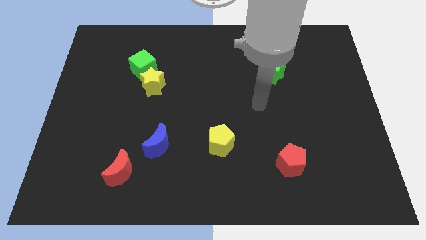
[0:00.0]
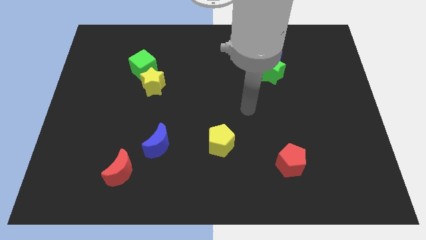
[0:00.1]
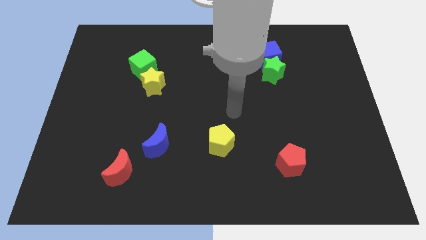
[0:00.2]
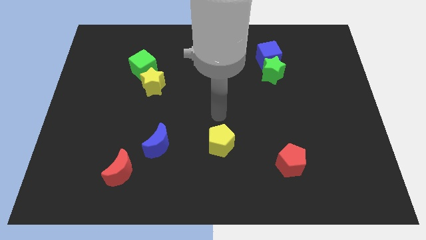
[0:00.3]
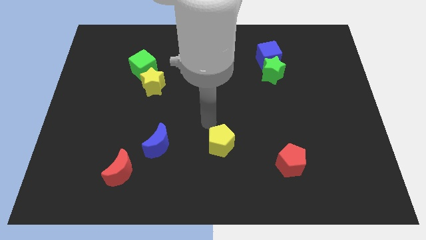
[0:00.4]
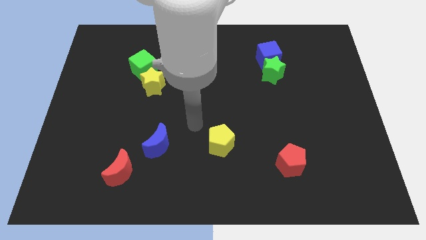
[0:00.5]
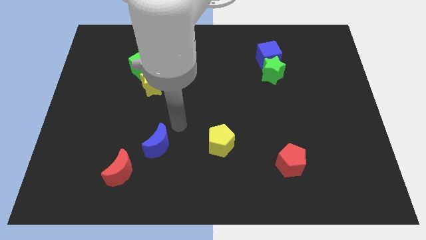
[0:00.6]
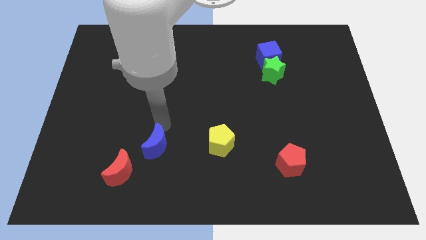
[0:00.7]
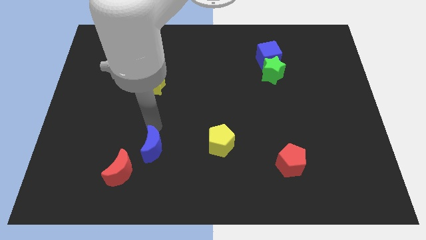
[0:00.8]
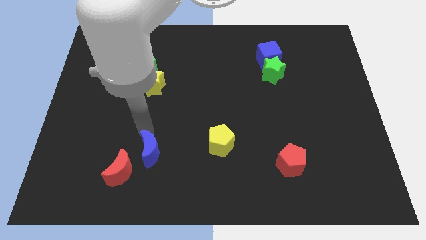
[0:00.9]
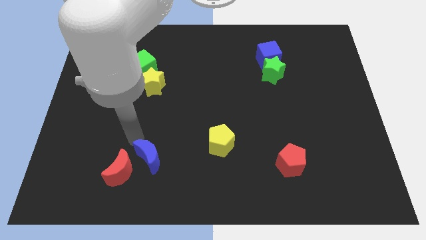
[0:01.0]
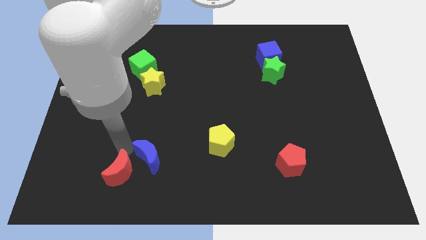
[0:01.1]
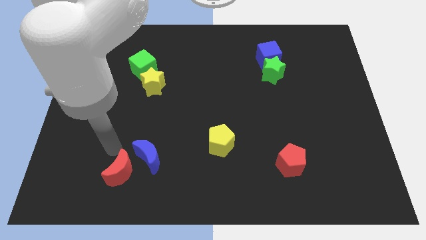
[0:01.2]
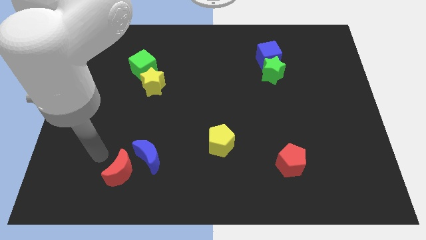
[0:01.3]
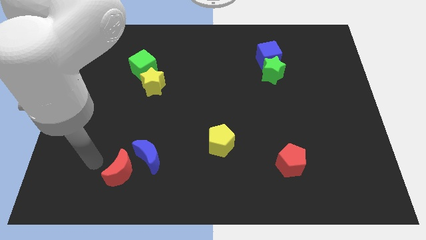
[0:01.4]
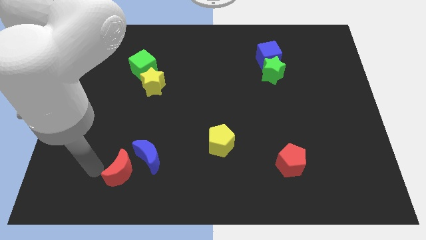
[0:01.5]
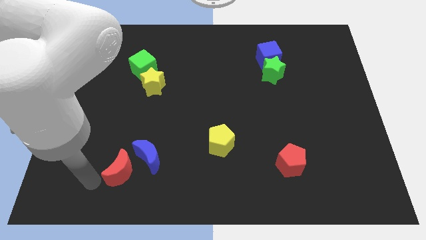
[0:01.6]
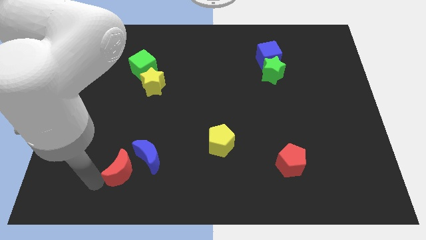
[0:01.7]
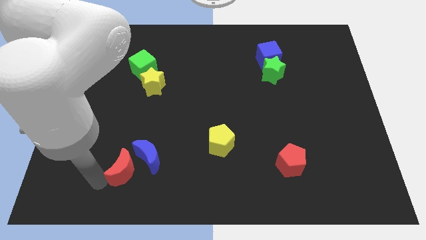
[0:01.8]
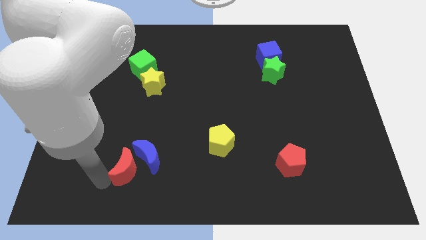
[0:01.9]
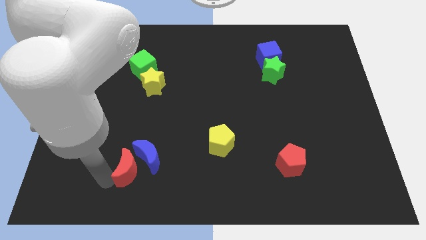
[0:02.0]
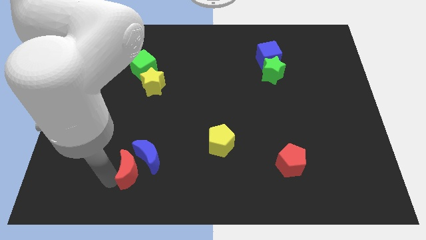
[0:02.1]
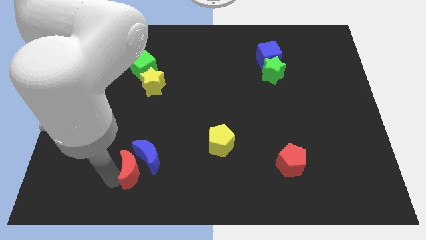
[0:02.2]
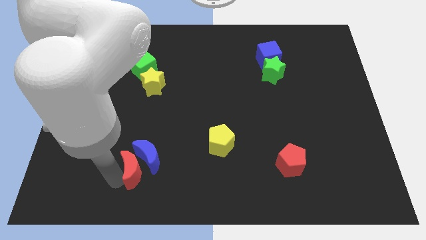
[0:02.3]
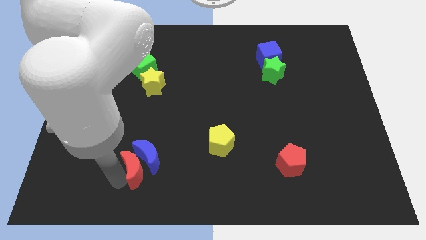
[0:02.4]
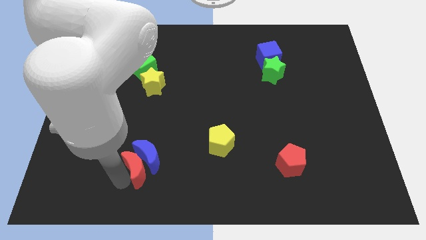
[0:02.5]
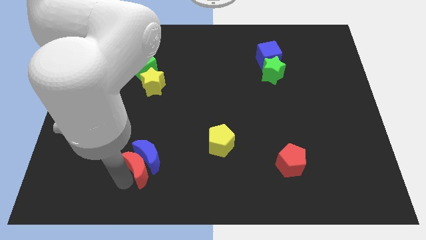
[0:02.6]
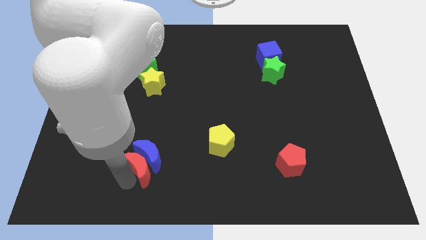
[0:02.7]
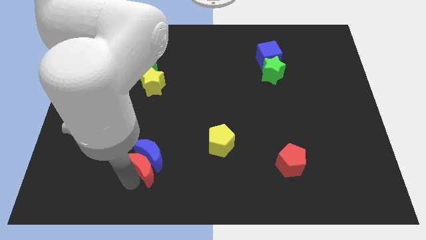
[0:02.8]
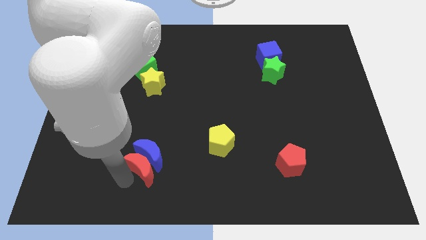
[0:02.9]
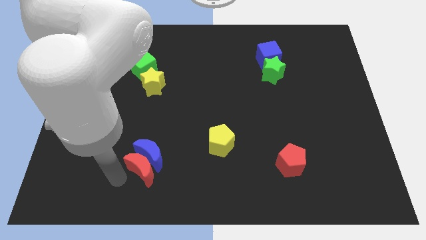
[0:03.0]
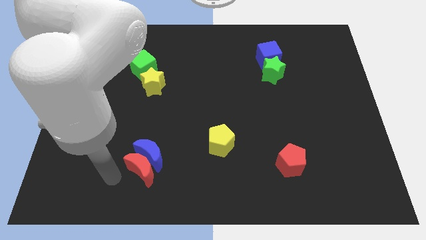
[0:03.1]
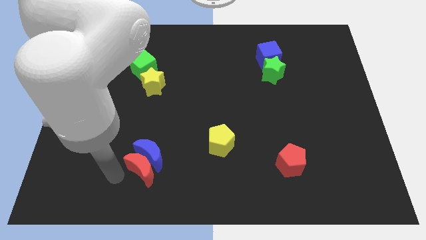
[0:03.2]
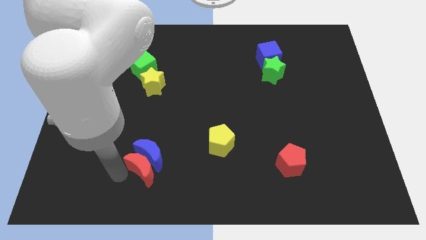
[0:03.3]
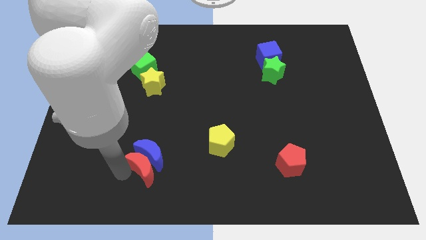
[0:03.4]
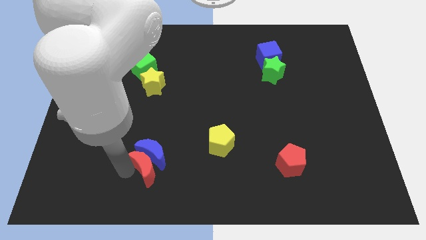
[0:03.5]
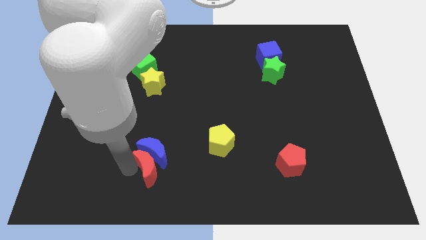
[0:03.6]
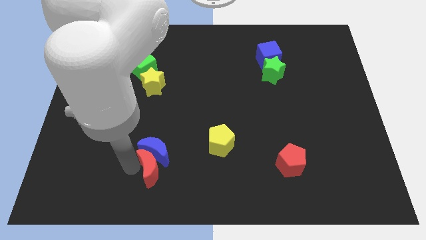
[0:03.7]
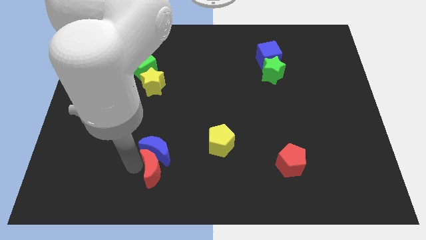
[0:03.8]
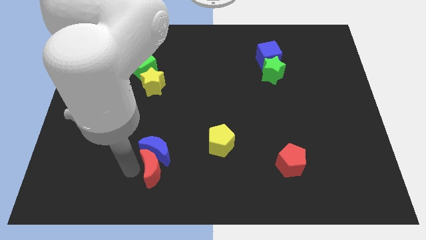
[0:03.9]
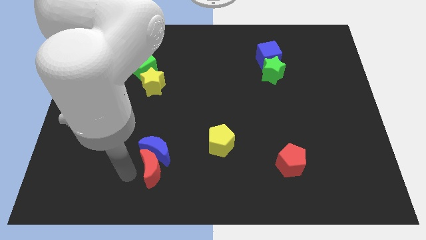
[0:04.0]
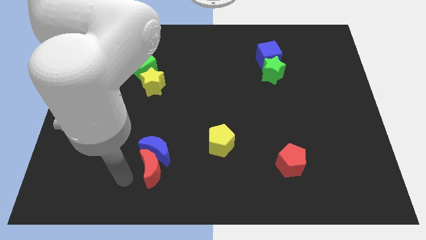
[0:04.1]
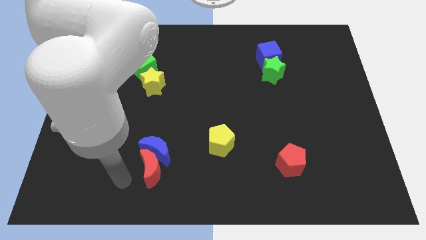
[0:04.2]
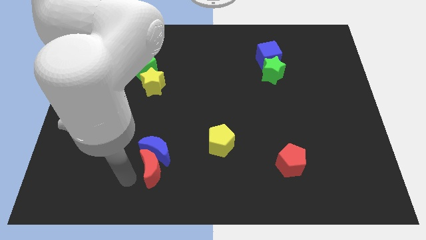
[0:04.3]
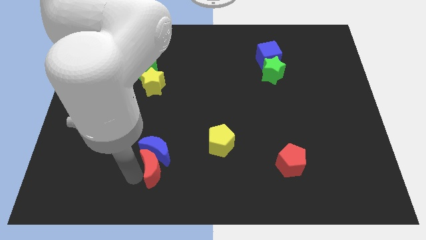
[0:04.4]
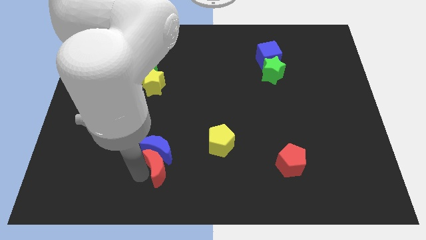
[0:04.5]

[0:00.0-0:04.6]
push the red moon a little right

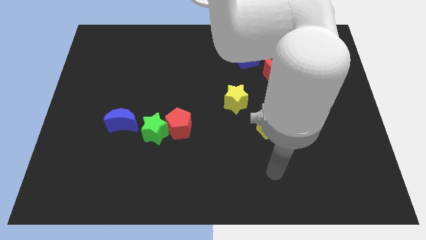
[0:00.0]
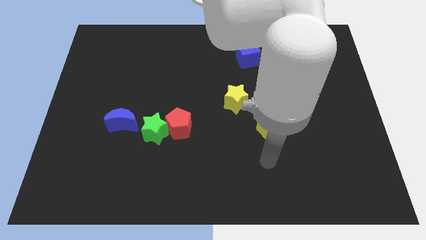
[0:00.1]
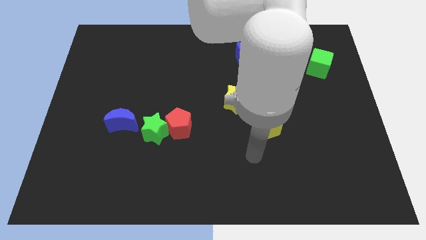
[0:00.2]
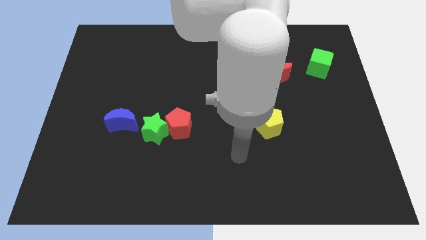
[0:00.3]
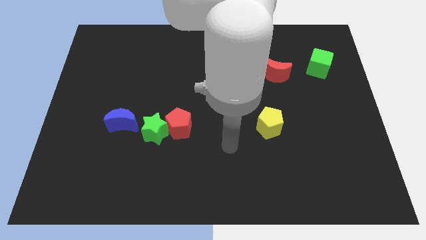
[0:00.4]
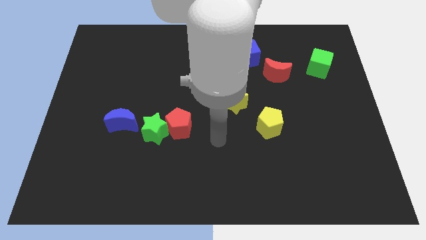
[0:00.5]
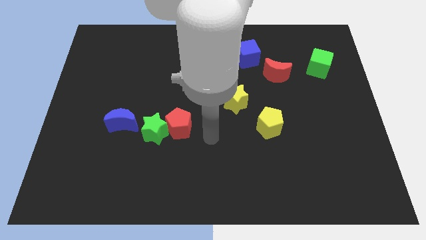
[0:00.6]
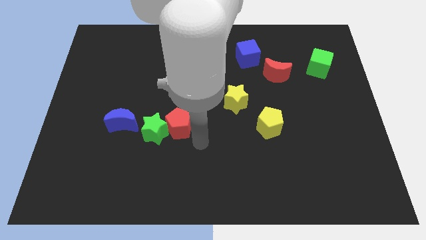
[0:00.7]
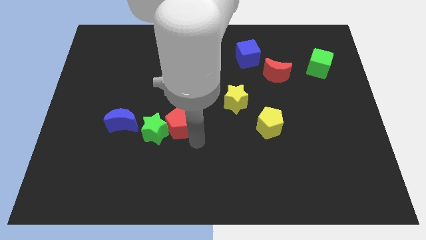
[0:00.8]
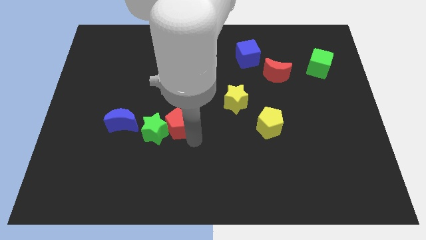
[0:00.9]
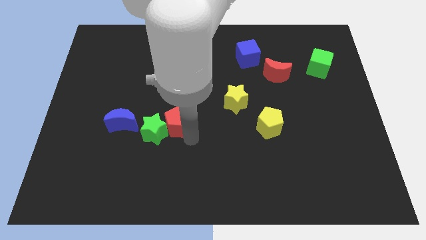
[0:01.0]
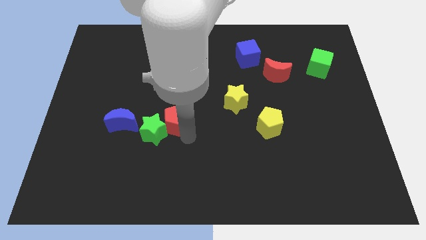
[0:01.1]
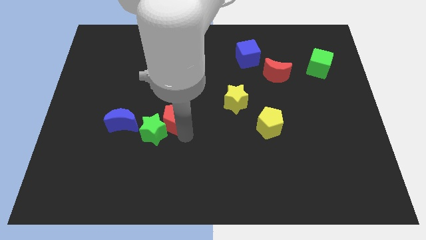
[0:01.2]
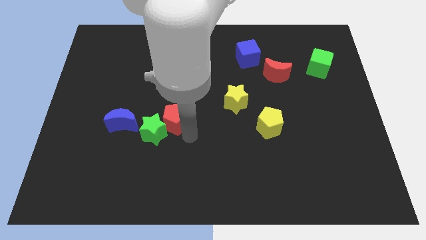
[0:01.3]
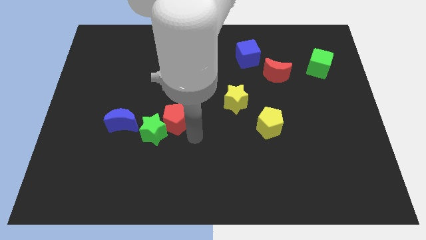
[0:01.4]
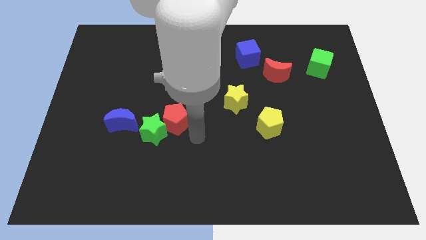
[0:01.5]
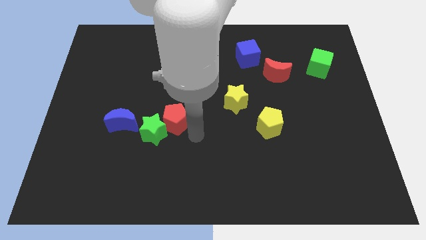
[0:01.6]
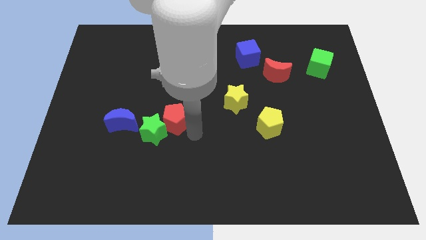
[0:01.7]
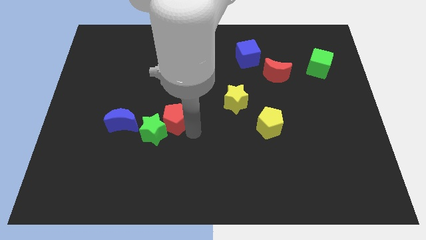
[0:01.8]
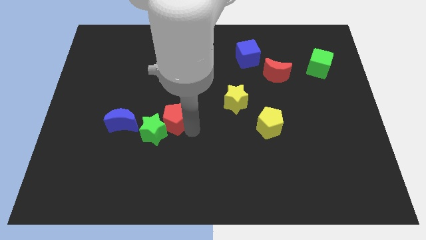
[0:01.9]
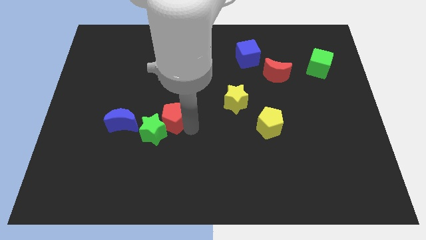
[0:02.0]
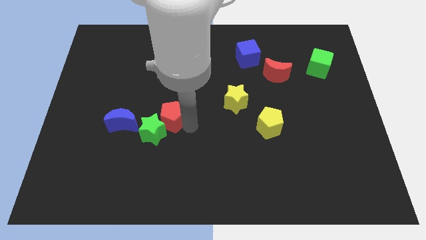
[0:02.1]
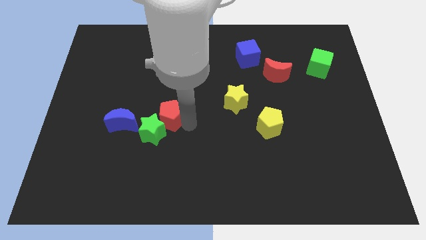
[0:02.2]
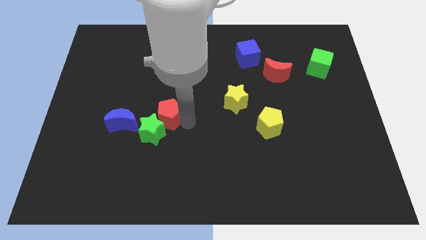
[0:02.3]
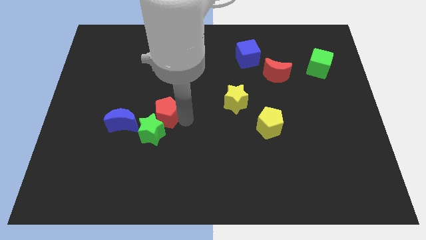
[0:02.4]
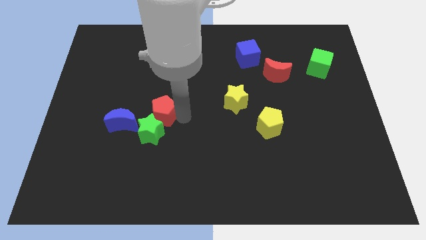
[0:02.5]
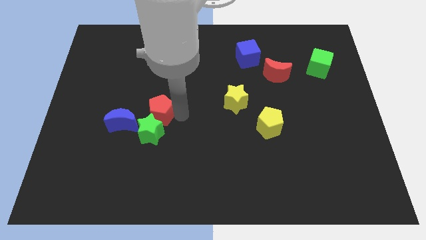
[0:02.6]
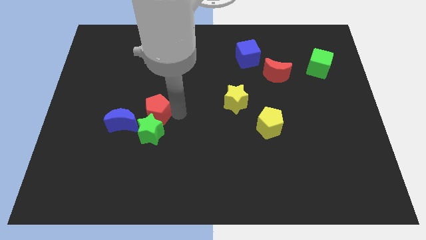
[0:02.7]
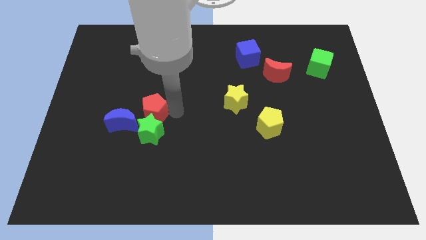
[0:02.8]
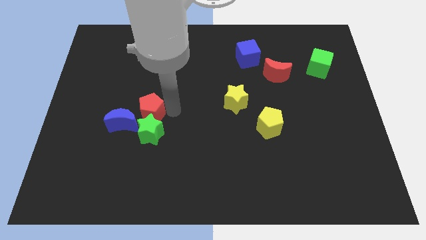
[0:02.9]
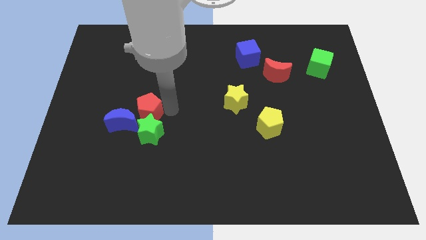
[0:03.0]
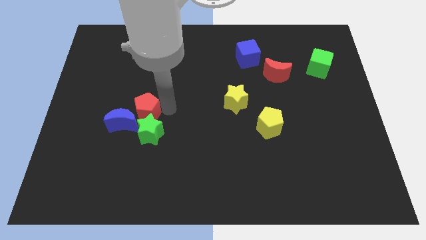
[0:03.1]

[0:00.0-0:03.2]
move the red pentagon slightly to the left
